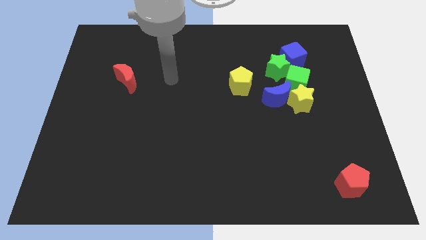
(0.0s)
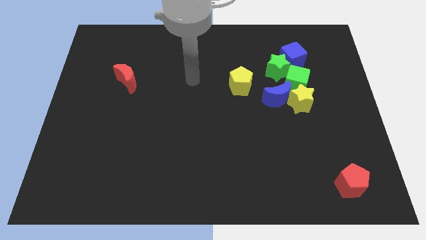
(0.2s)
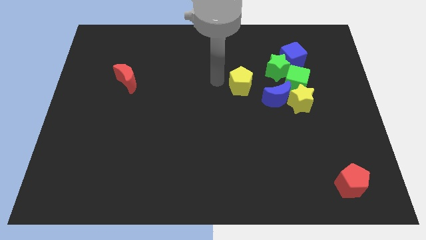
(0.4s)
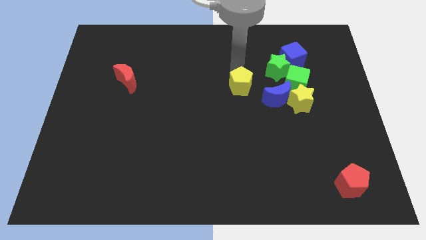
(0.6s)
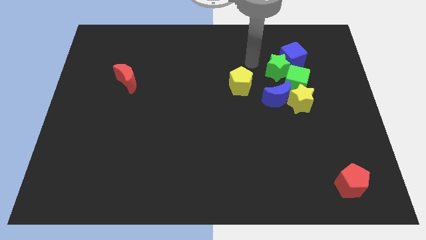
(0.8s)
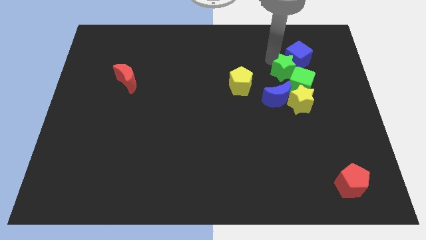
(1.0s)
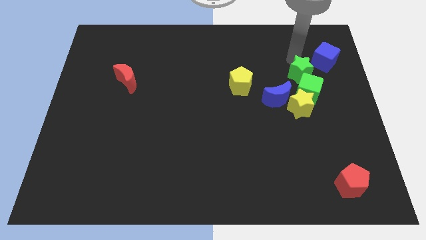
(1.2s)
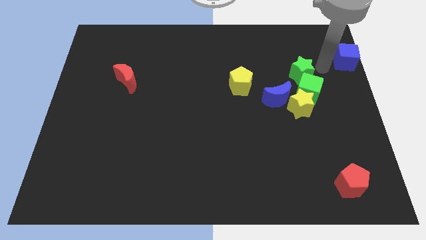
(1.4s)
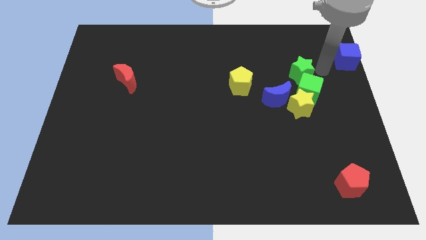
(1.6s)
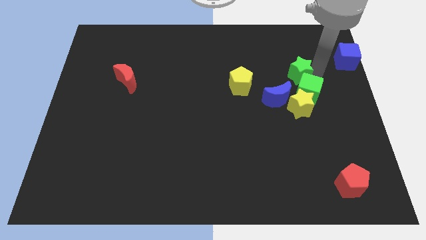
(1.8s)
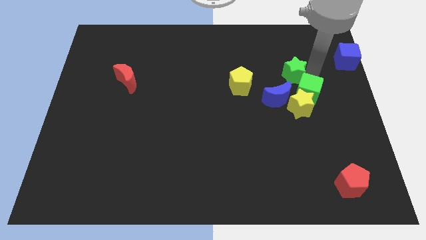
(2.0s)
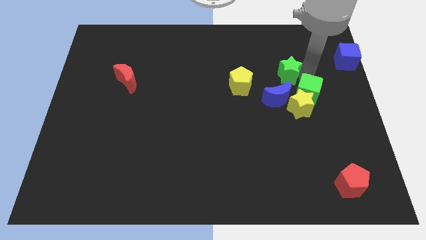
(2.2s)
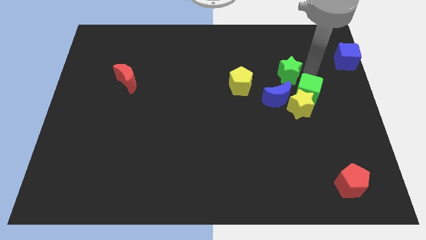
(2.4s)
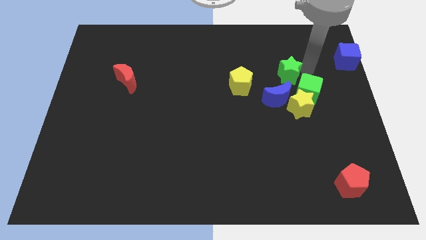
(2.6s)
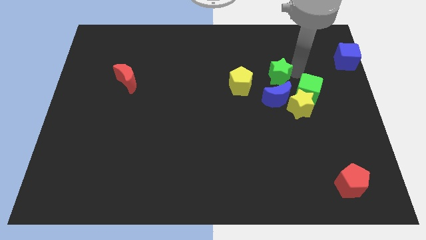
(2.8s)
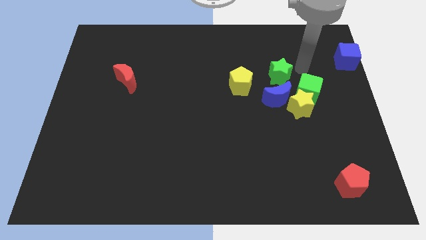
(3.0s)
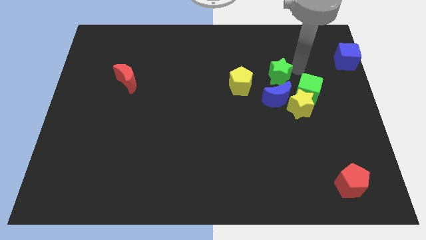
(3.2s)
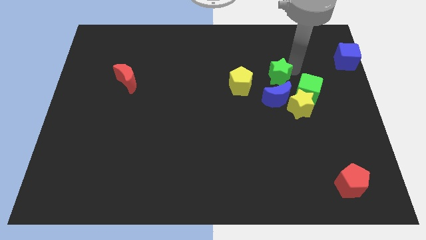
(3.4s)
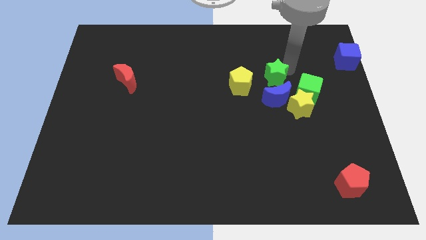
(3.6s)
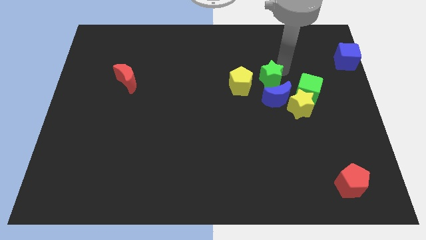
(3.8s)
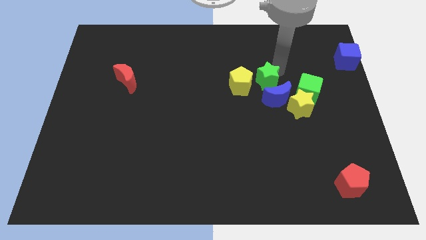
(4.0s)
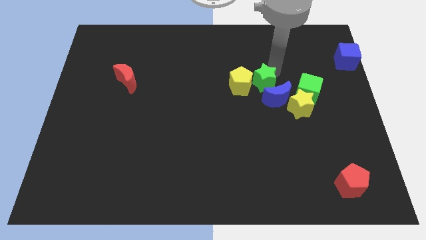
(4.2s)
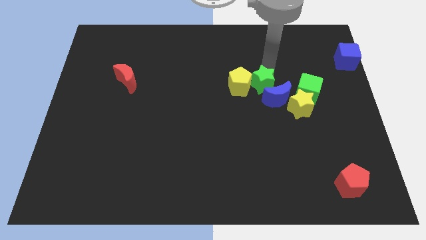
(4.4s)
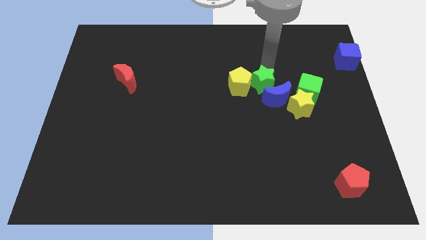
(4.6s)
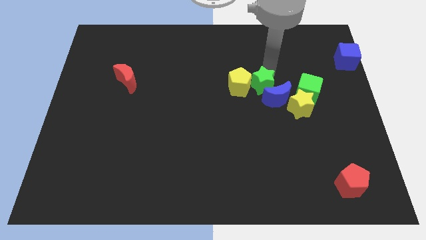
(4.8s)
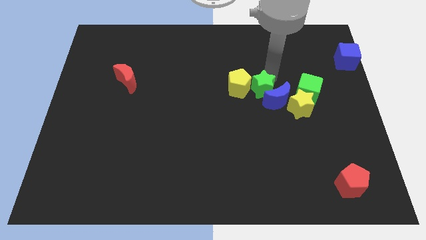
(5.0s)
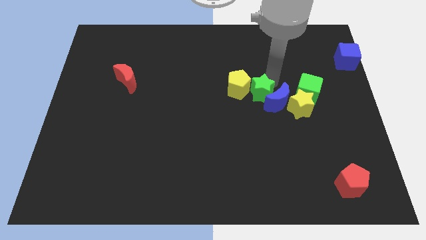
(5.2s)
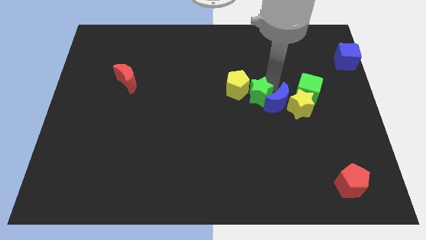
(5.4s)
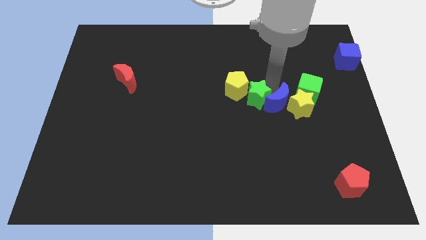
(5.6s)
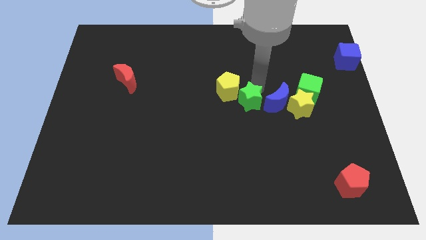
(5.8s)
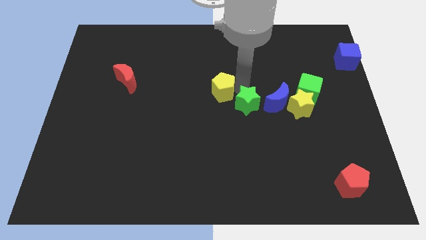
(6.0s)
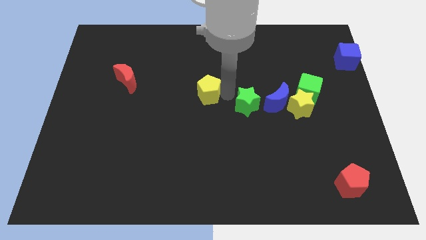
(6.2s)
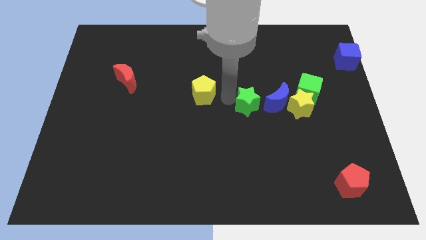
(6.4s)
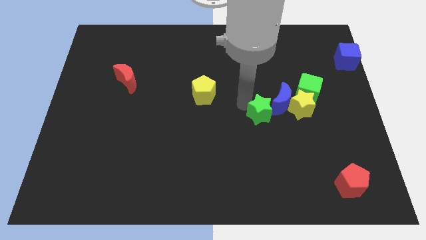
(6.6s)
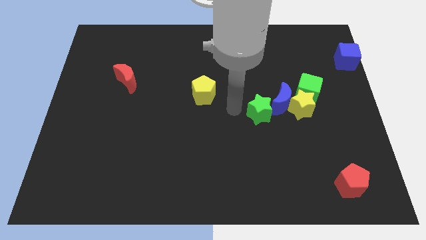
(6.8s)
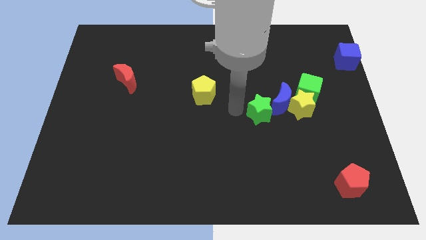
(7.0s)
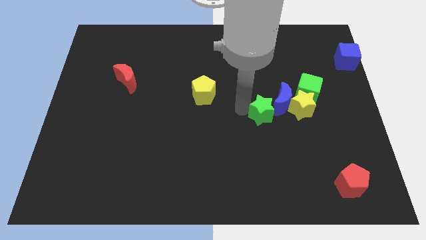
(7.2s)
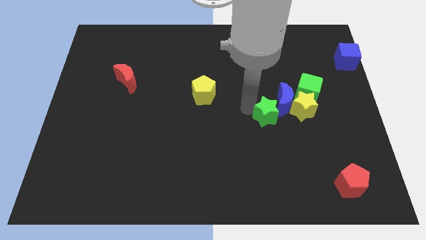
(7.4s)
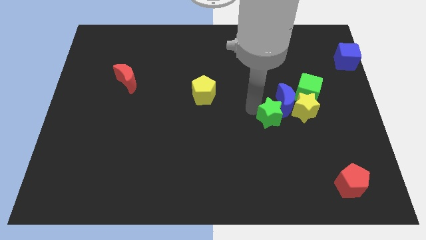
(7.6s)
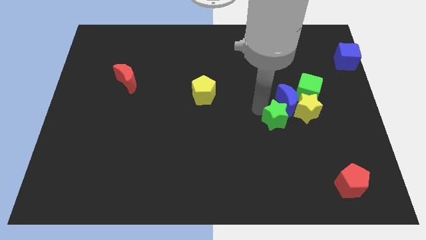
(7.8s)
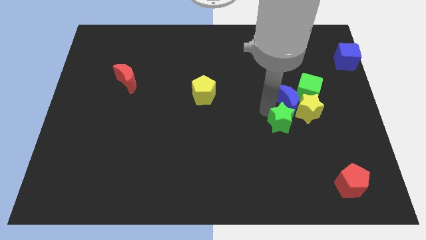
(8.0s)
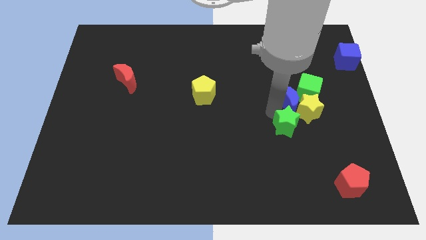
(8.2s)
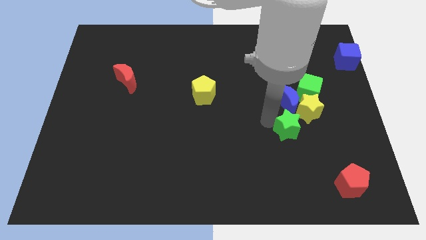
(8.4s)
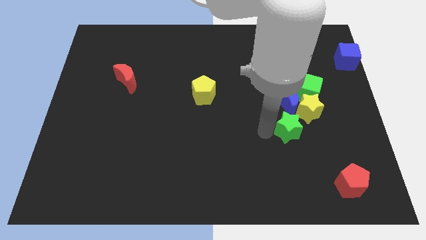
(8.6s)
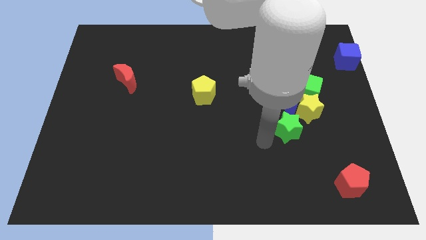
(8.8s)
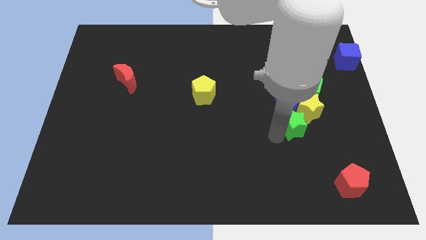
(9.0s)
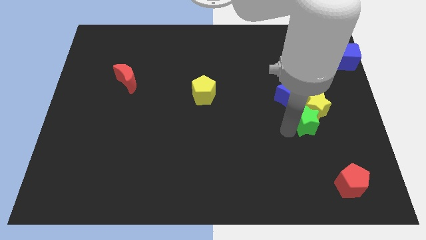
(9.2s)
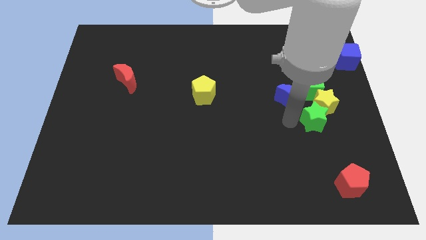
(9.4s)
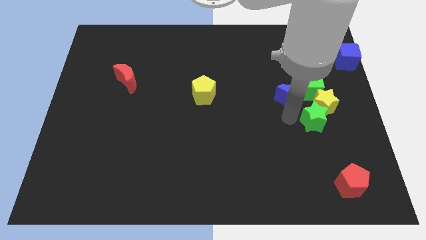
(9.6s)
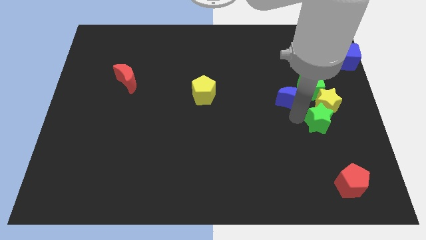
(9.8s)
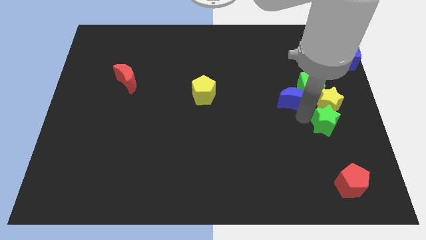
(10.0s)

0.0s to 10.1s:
move the green star to the bottom right of the yellow star

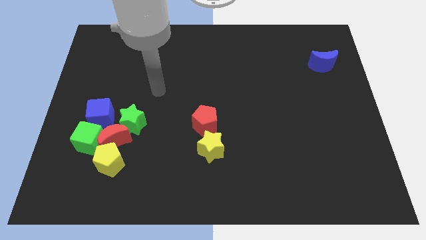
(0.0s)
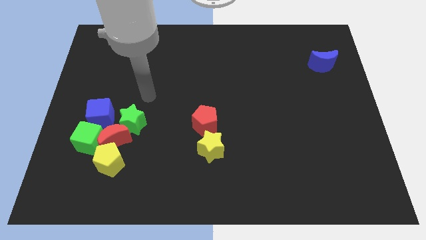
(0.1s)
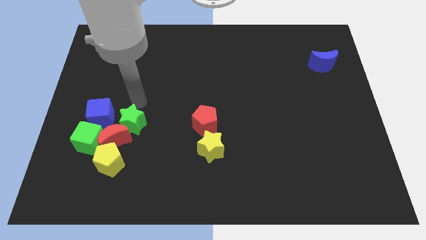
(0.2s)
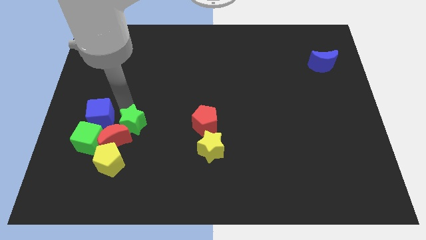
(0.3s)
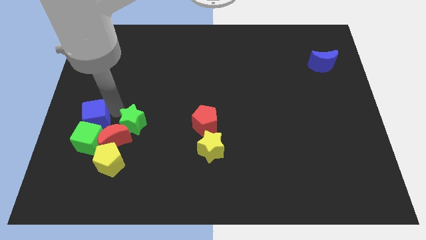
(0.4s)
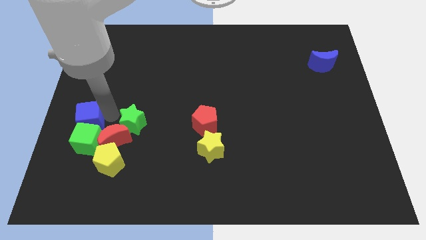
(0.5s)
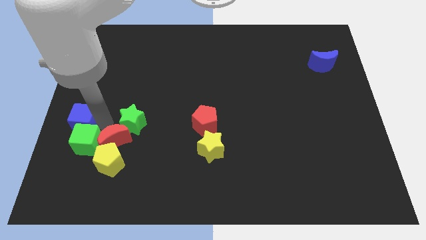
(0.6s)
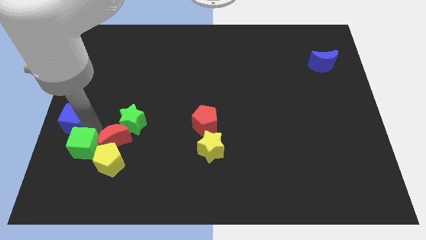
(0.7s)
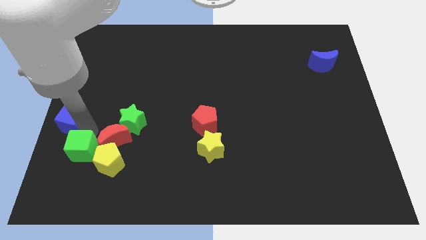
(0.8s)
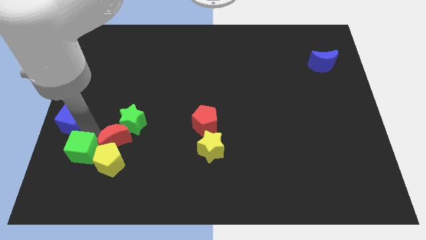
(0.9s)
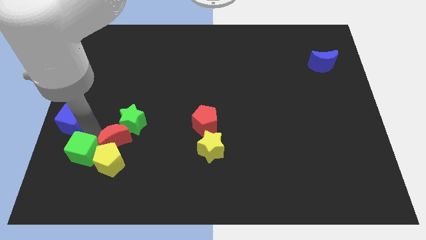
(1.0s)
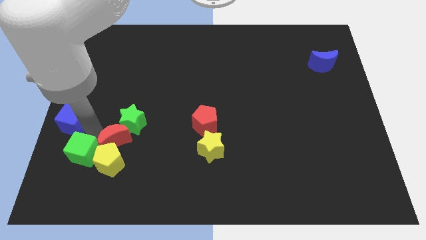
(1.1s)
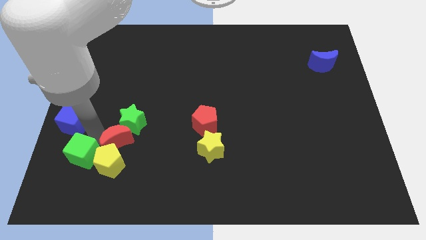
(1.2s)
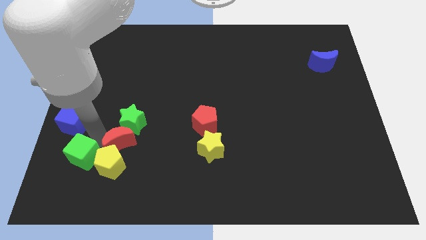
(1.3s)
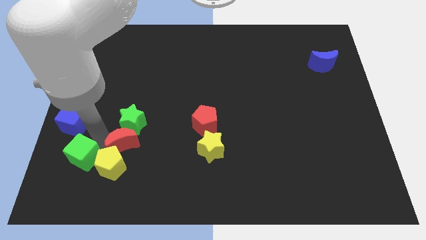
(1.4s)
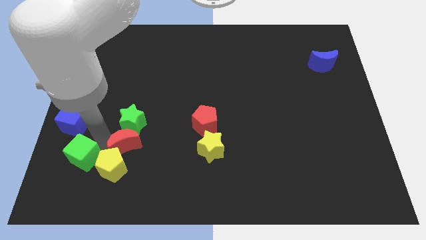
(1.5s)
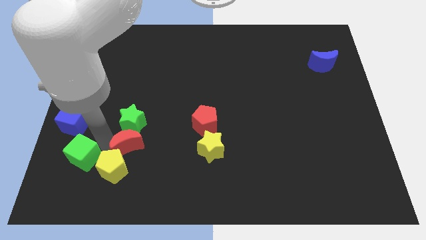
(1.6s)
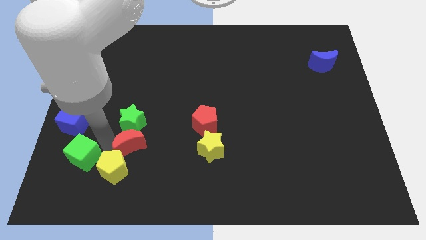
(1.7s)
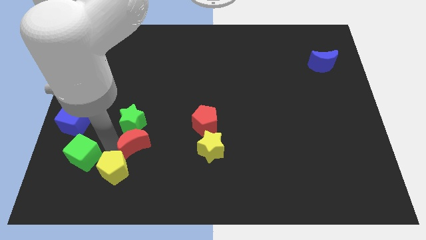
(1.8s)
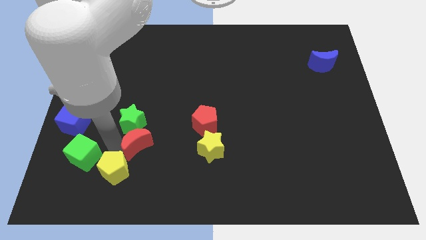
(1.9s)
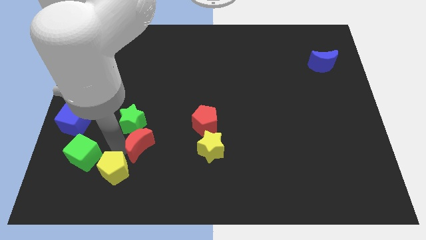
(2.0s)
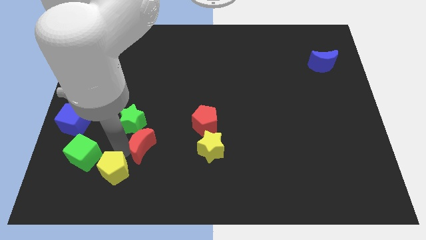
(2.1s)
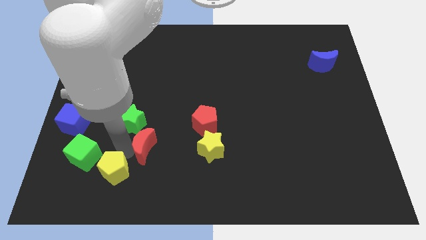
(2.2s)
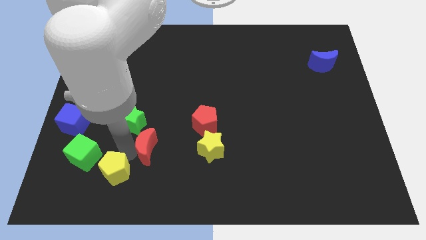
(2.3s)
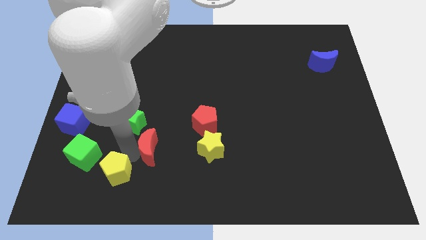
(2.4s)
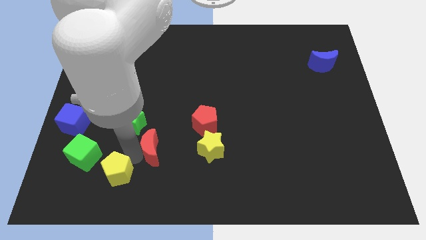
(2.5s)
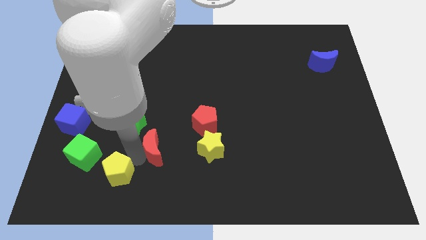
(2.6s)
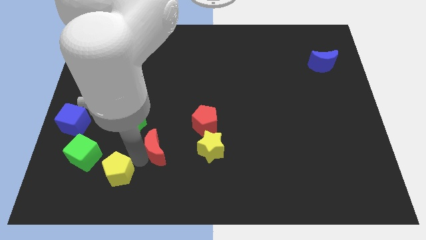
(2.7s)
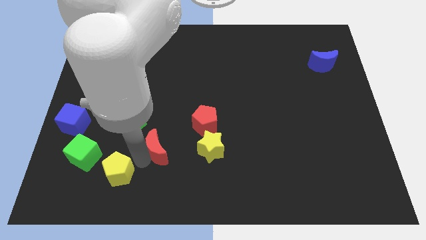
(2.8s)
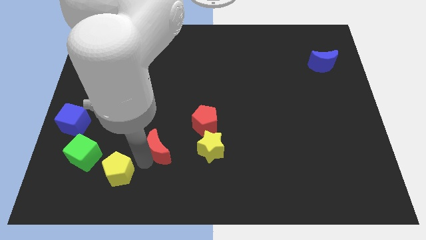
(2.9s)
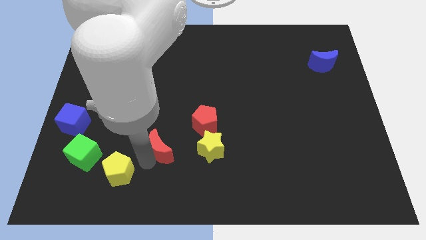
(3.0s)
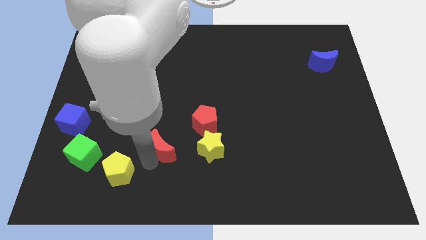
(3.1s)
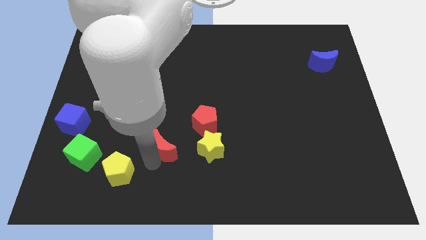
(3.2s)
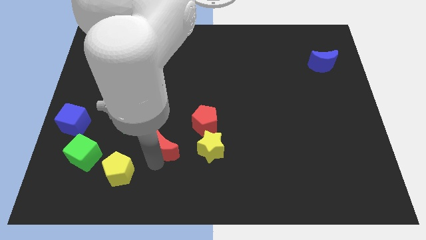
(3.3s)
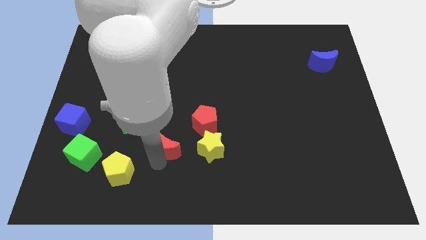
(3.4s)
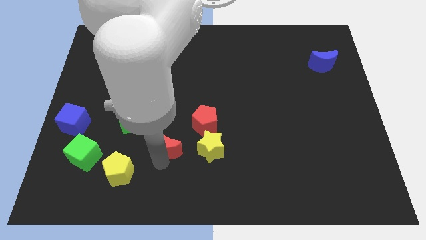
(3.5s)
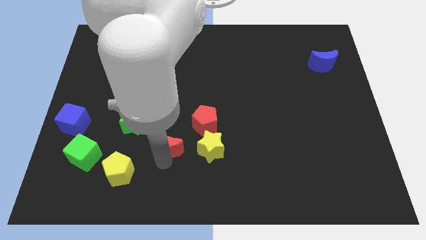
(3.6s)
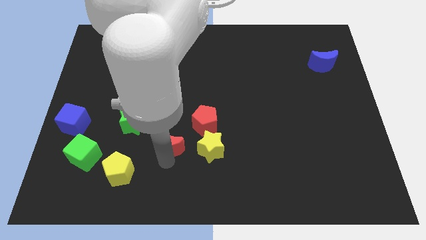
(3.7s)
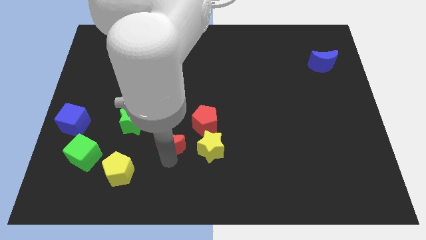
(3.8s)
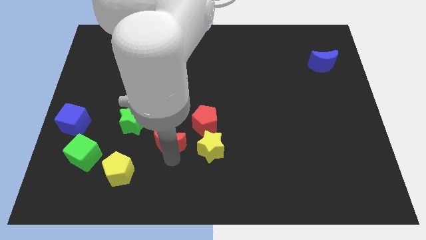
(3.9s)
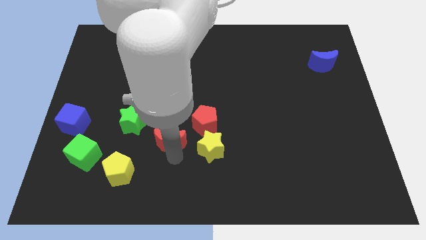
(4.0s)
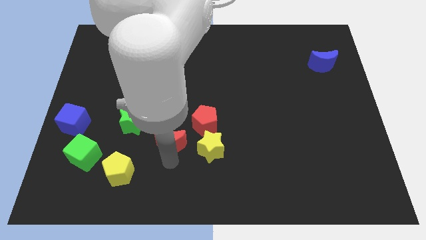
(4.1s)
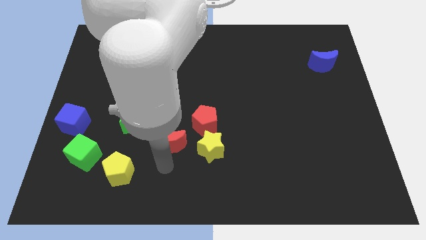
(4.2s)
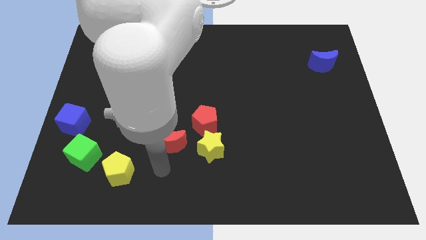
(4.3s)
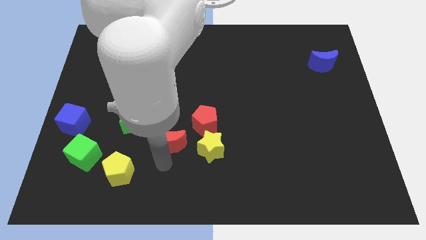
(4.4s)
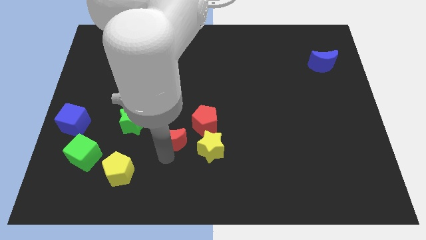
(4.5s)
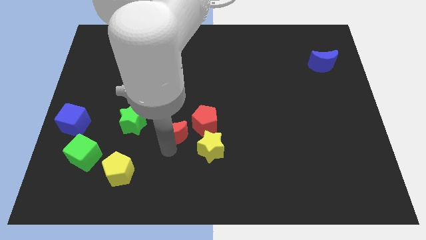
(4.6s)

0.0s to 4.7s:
slide the red moon to the right of the green star
